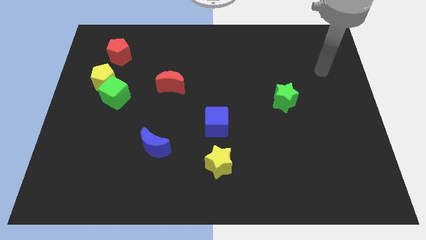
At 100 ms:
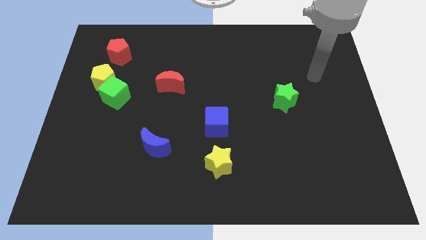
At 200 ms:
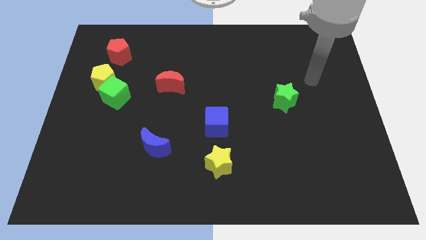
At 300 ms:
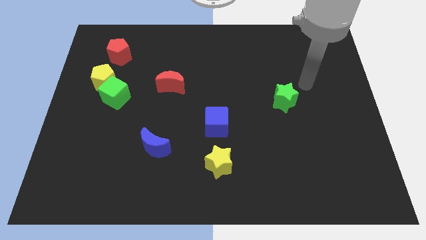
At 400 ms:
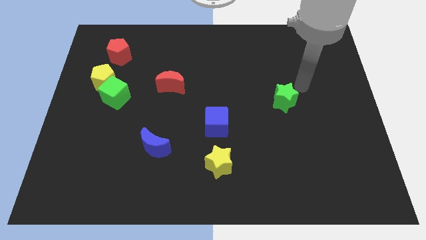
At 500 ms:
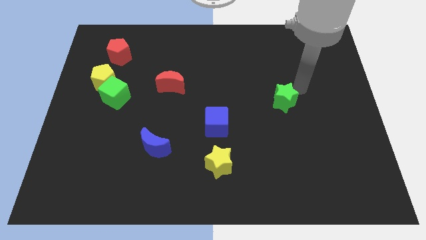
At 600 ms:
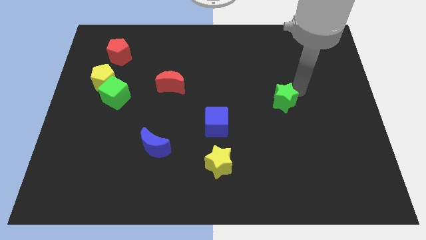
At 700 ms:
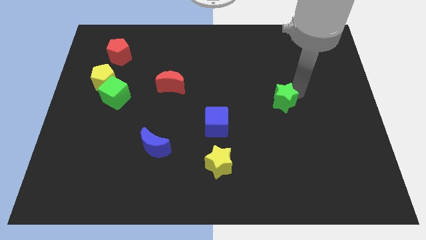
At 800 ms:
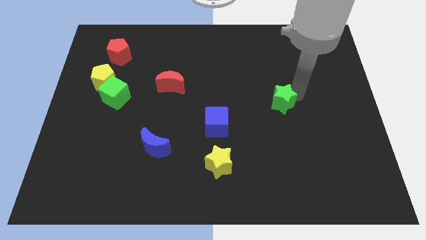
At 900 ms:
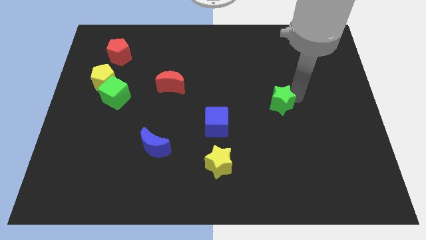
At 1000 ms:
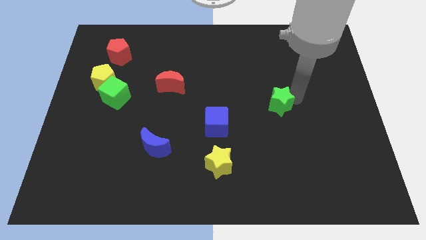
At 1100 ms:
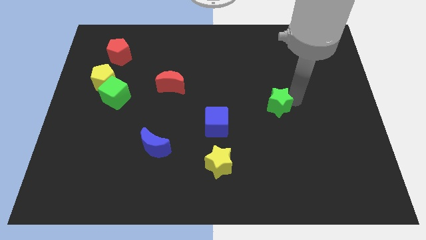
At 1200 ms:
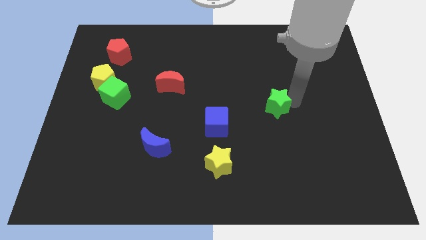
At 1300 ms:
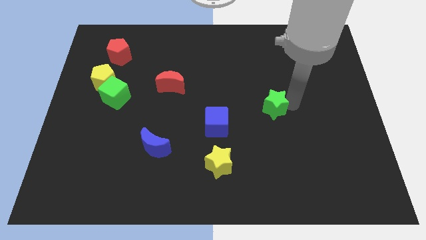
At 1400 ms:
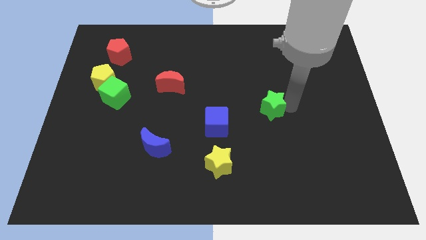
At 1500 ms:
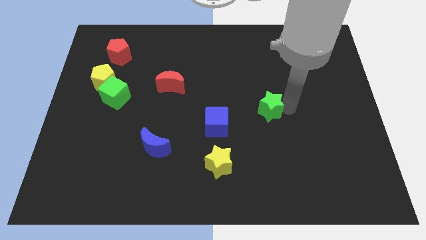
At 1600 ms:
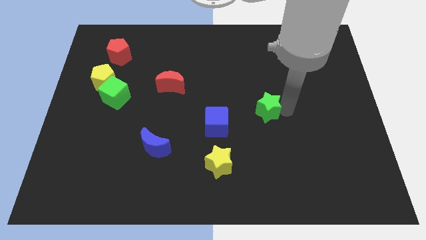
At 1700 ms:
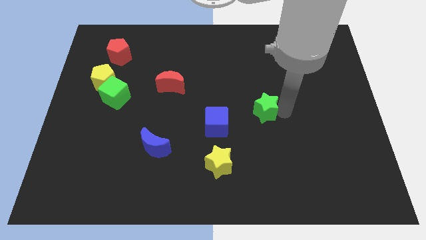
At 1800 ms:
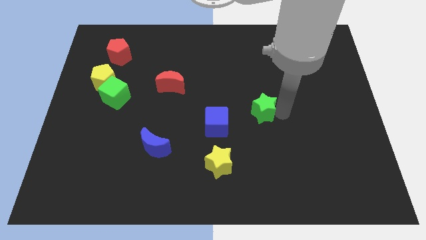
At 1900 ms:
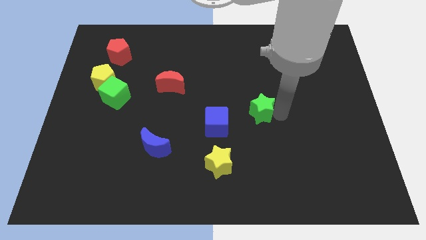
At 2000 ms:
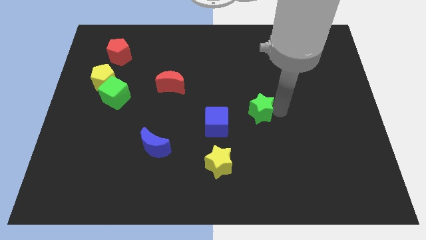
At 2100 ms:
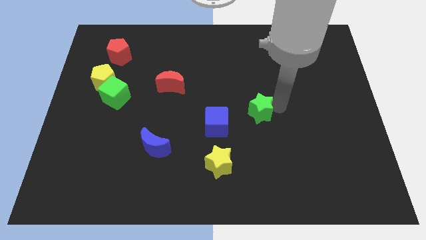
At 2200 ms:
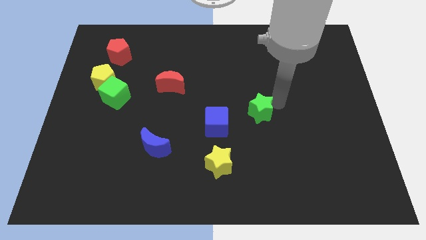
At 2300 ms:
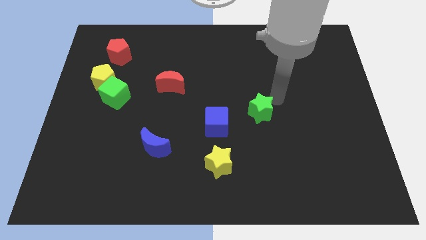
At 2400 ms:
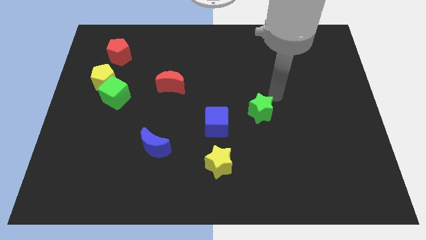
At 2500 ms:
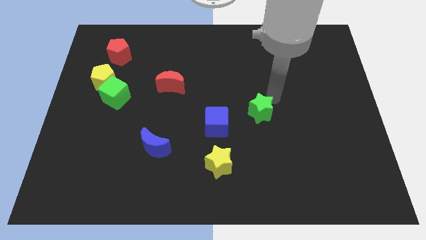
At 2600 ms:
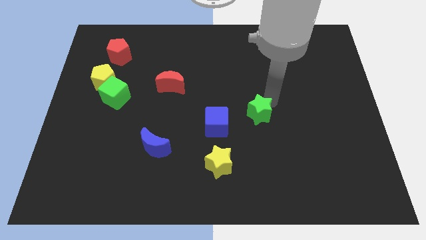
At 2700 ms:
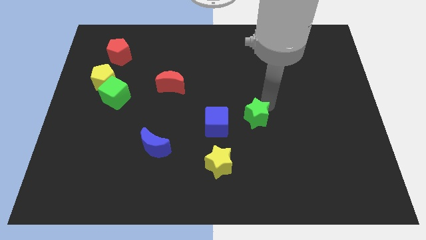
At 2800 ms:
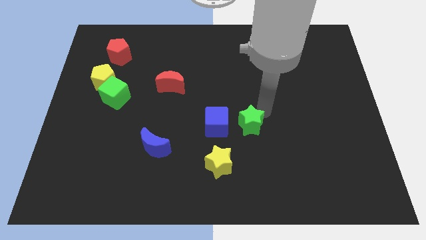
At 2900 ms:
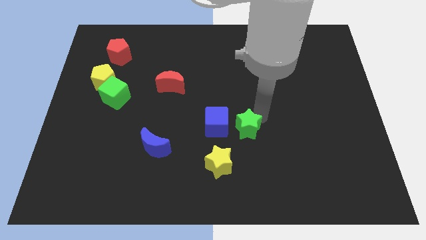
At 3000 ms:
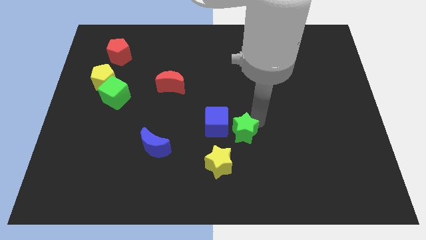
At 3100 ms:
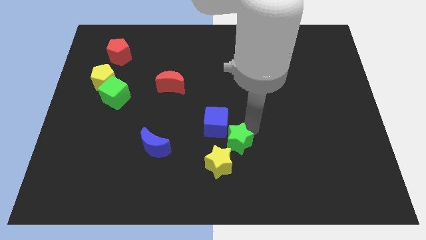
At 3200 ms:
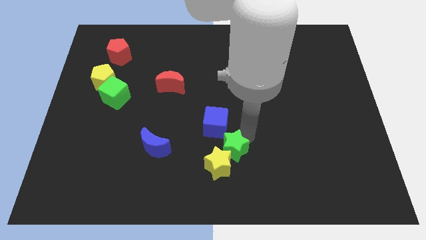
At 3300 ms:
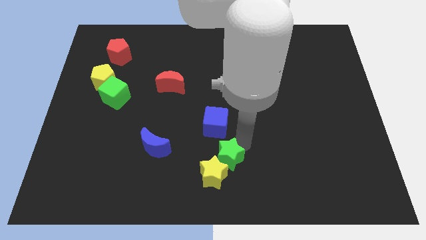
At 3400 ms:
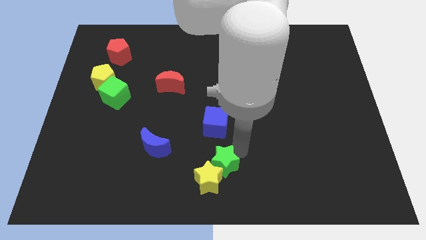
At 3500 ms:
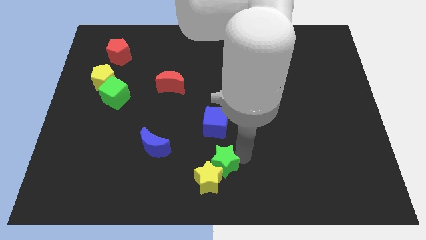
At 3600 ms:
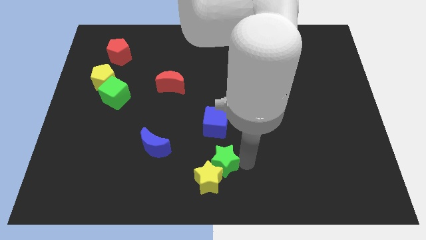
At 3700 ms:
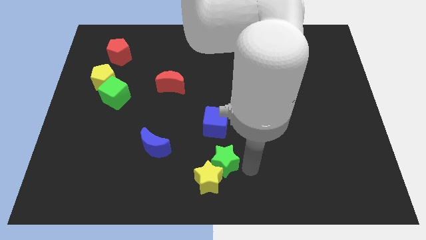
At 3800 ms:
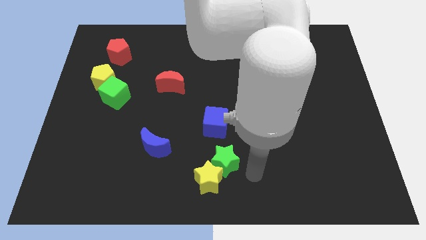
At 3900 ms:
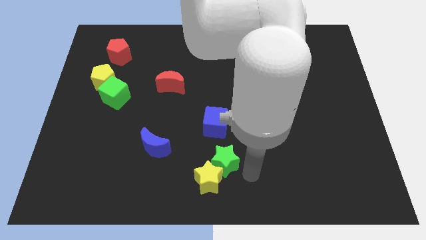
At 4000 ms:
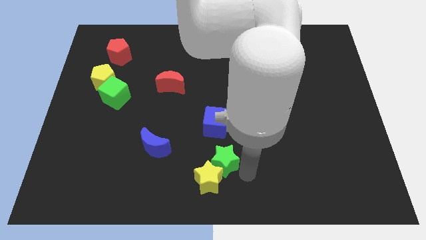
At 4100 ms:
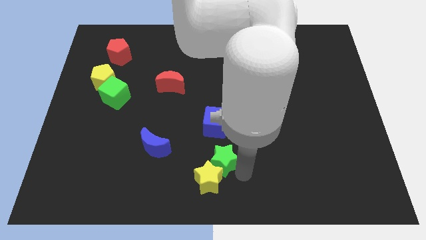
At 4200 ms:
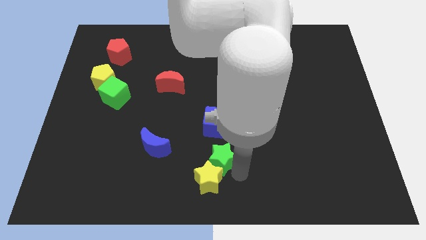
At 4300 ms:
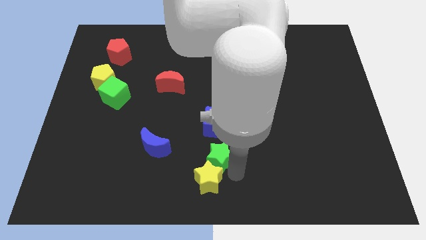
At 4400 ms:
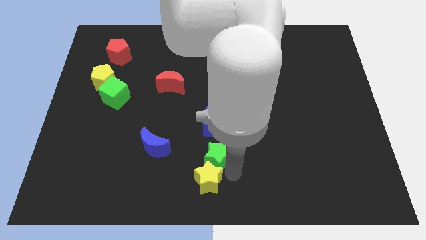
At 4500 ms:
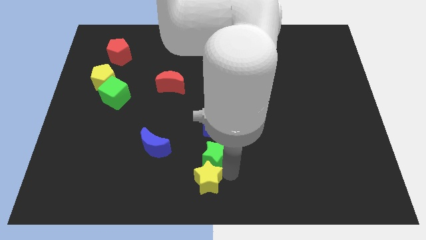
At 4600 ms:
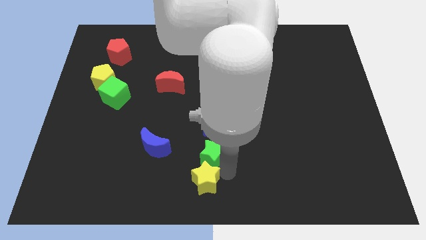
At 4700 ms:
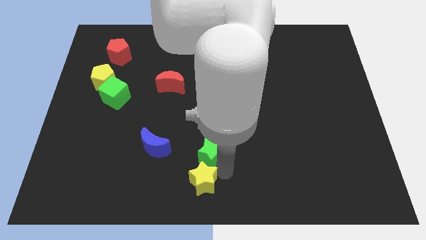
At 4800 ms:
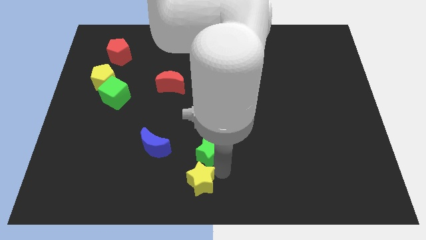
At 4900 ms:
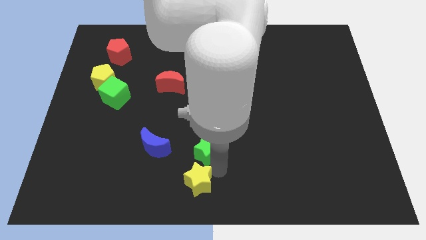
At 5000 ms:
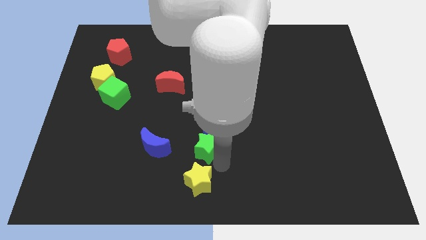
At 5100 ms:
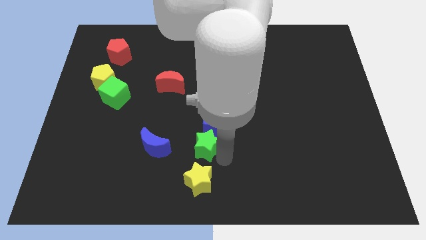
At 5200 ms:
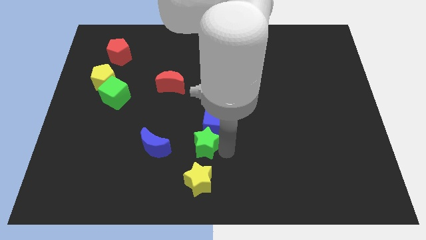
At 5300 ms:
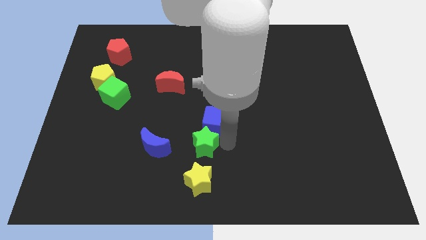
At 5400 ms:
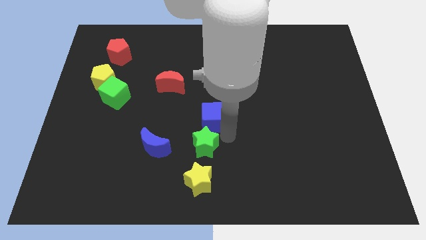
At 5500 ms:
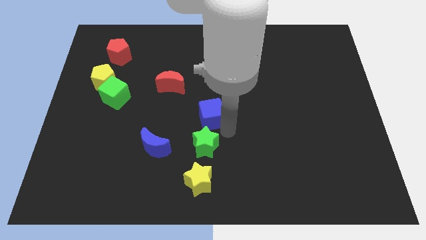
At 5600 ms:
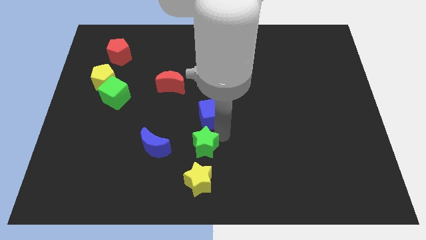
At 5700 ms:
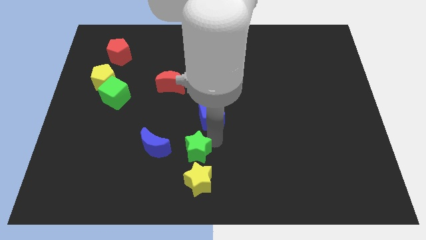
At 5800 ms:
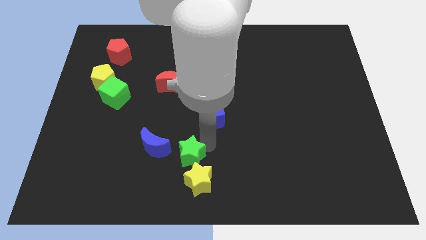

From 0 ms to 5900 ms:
put the green star diagonally down and to the right of the blue moon
